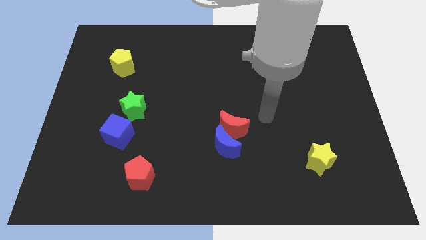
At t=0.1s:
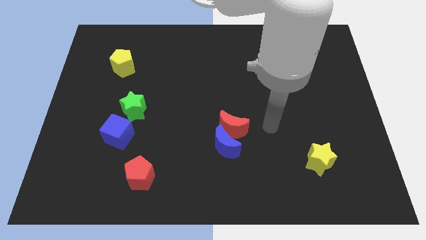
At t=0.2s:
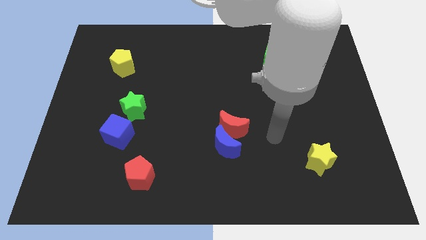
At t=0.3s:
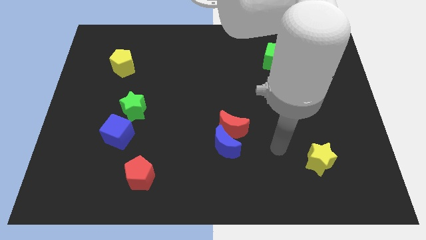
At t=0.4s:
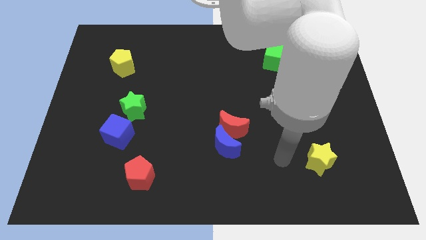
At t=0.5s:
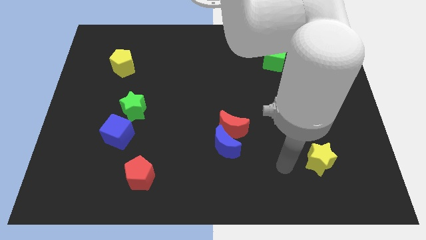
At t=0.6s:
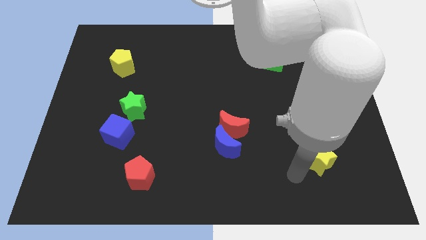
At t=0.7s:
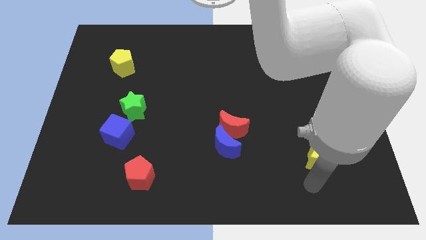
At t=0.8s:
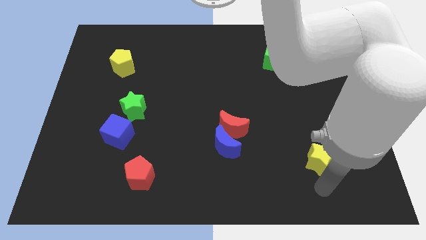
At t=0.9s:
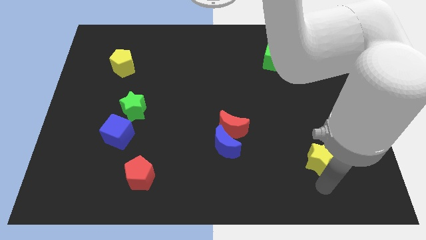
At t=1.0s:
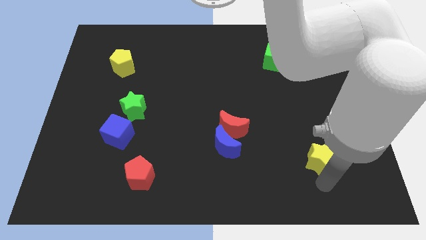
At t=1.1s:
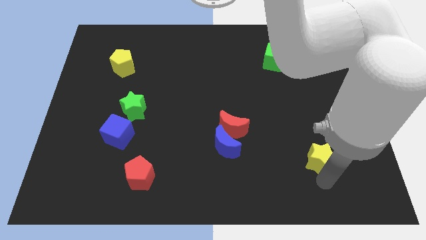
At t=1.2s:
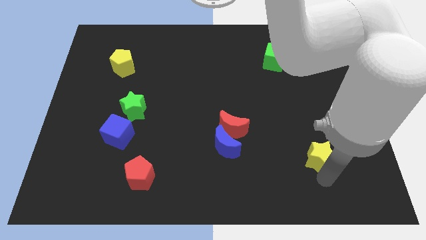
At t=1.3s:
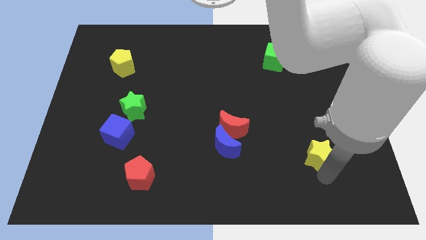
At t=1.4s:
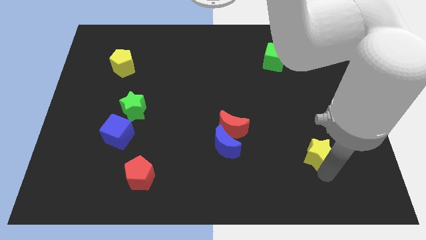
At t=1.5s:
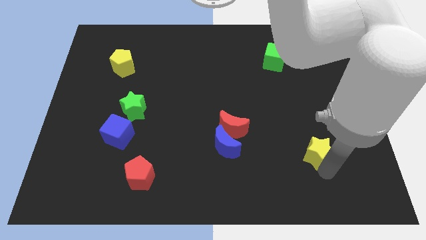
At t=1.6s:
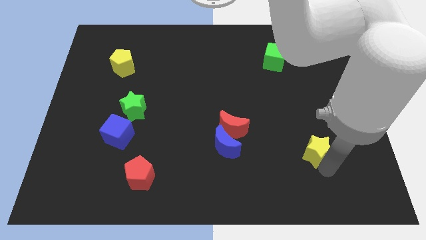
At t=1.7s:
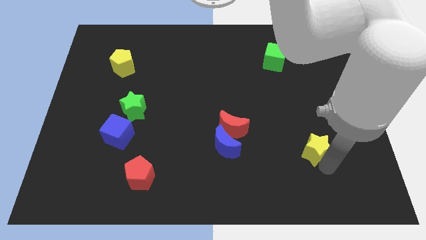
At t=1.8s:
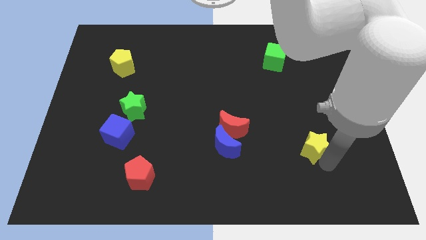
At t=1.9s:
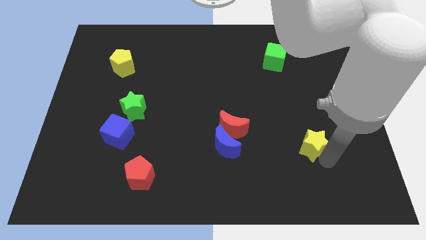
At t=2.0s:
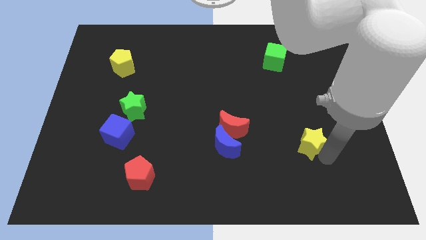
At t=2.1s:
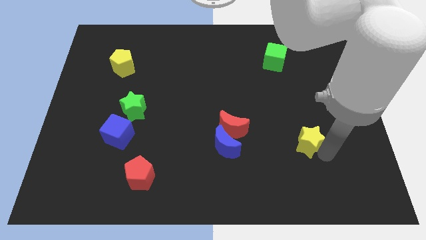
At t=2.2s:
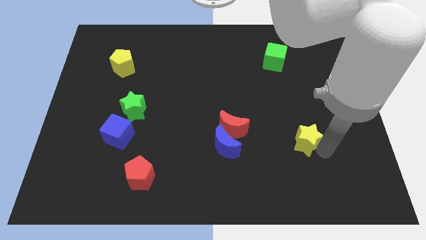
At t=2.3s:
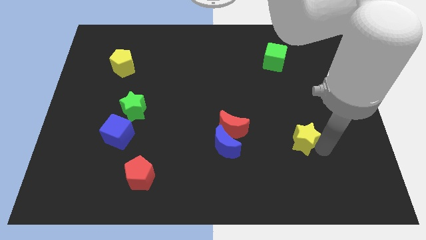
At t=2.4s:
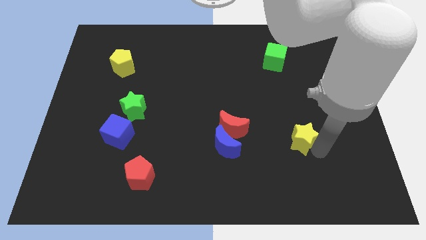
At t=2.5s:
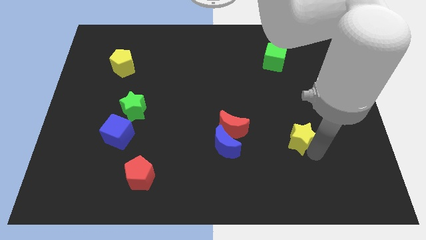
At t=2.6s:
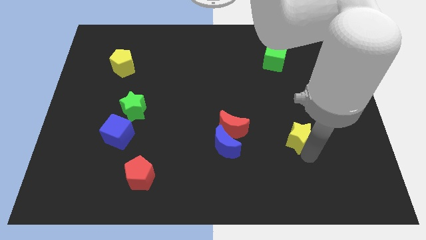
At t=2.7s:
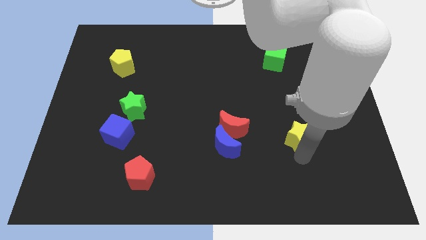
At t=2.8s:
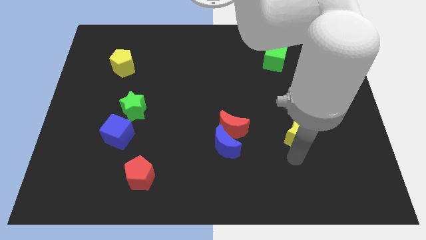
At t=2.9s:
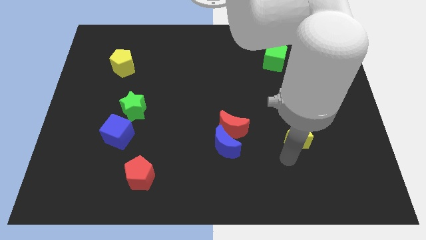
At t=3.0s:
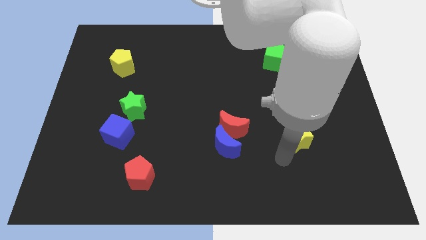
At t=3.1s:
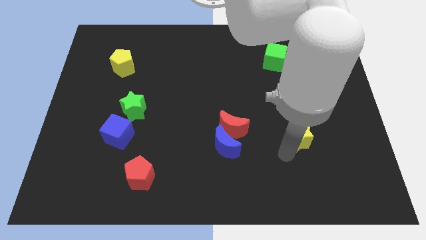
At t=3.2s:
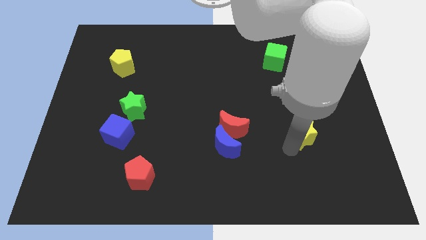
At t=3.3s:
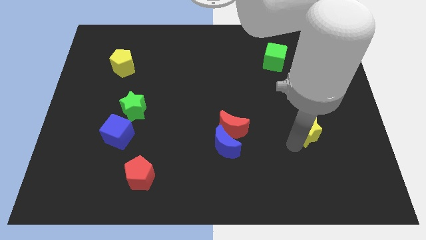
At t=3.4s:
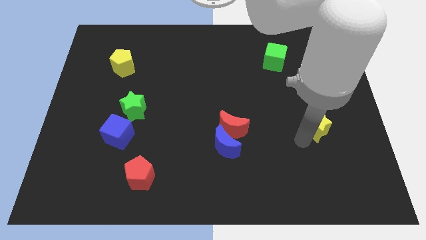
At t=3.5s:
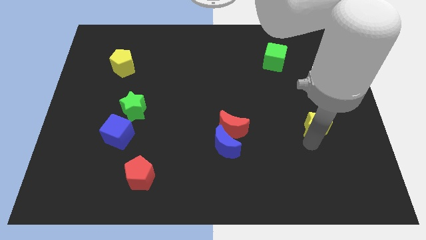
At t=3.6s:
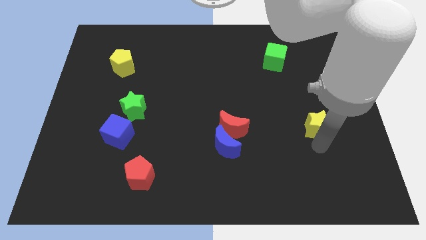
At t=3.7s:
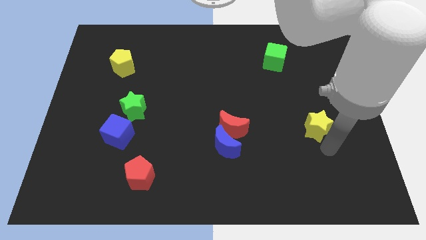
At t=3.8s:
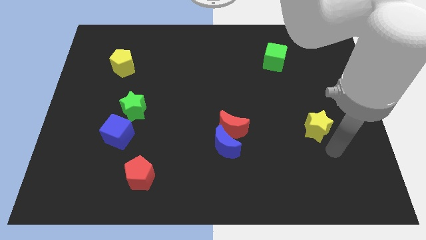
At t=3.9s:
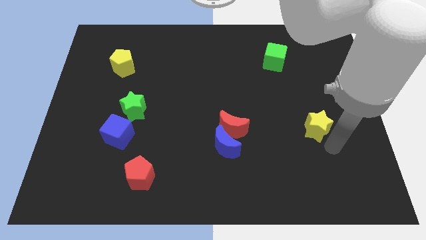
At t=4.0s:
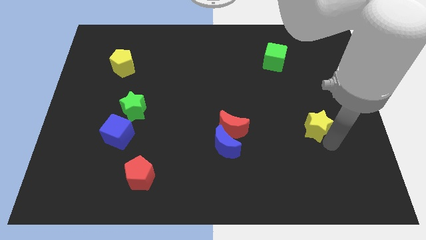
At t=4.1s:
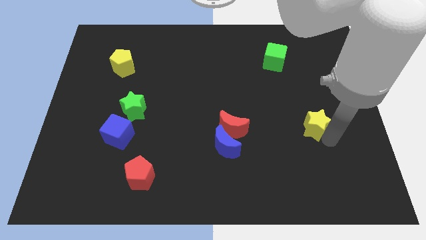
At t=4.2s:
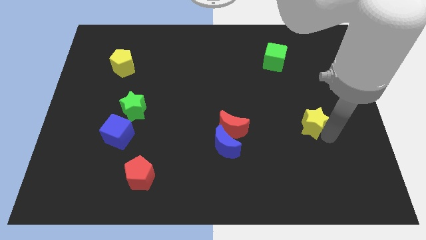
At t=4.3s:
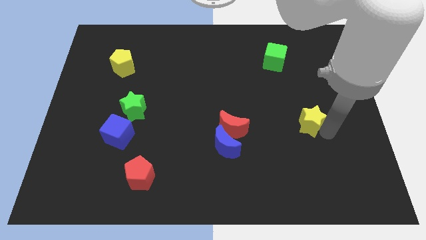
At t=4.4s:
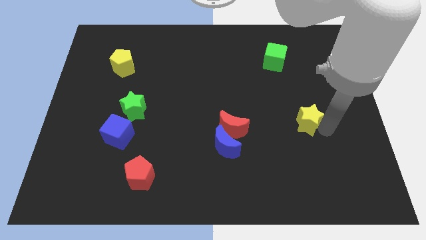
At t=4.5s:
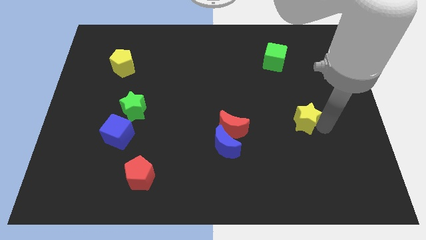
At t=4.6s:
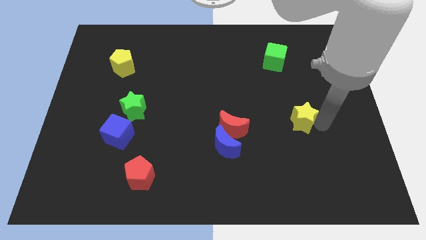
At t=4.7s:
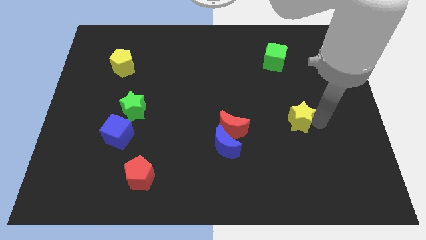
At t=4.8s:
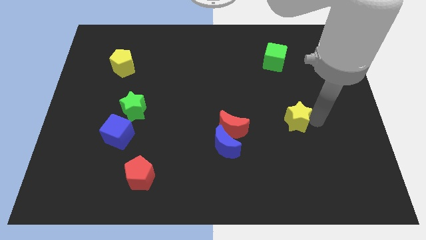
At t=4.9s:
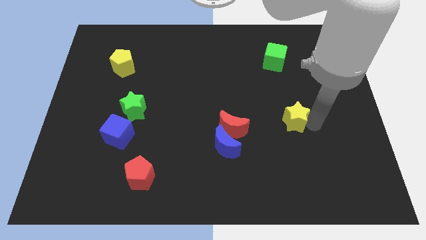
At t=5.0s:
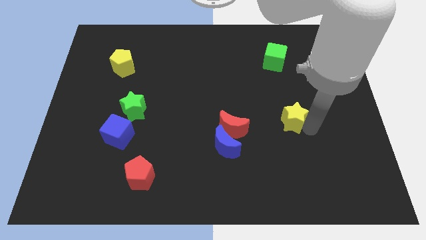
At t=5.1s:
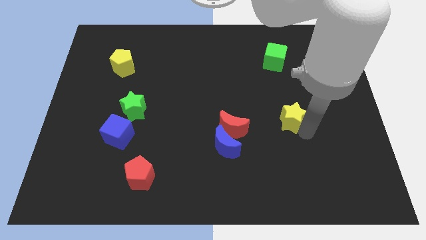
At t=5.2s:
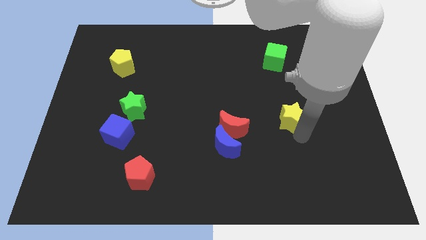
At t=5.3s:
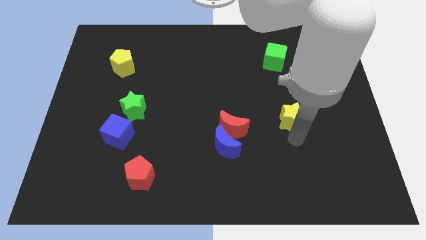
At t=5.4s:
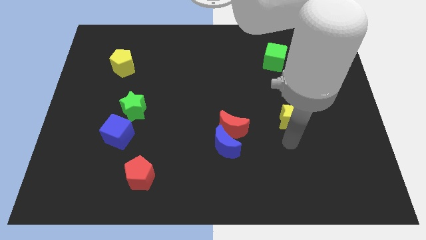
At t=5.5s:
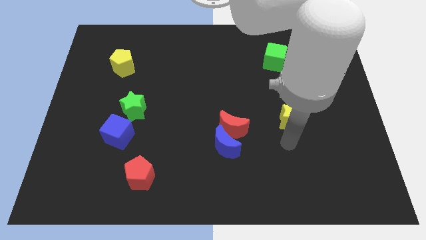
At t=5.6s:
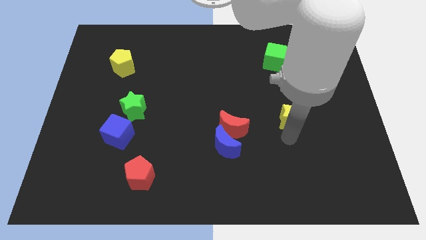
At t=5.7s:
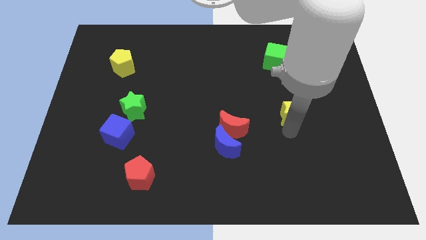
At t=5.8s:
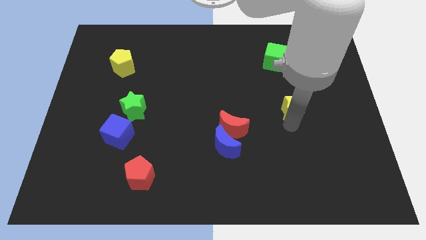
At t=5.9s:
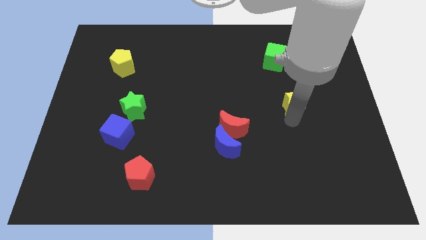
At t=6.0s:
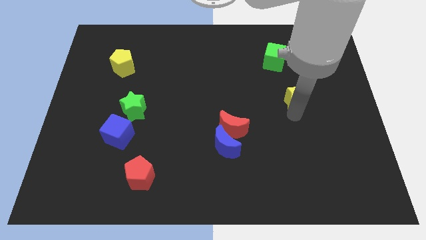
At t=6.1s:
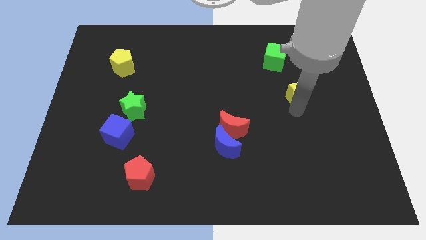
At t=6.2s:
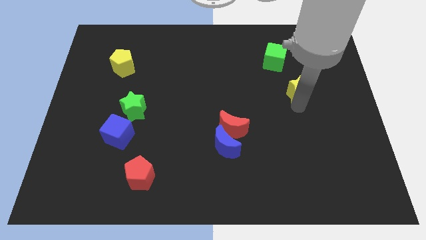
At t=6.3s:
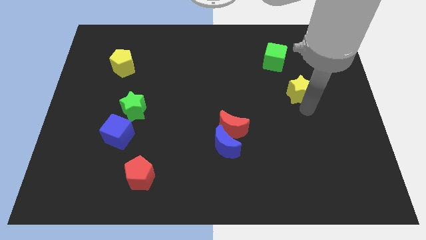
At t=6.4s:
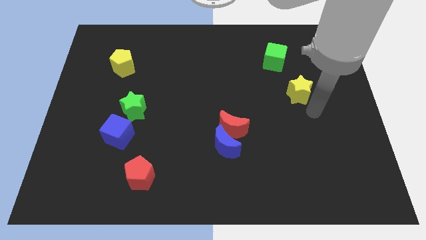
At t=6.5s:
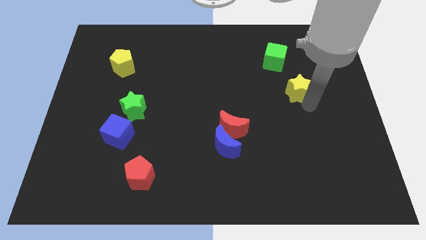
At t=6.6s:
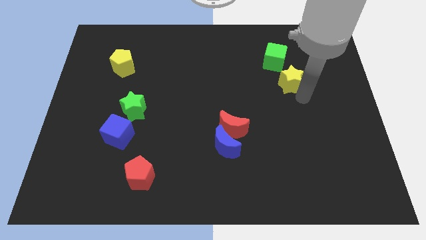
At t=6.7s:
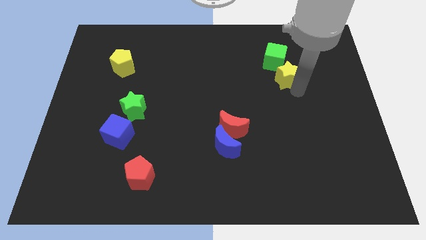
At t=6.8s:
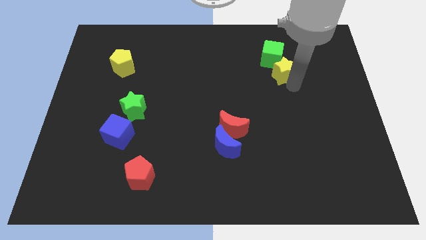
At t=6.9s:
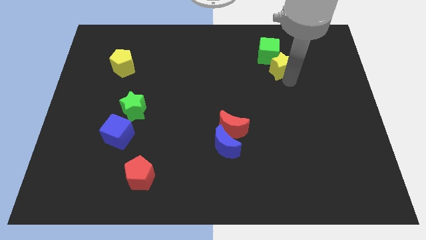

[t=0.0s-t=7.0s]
put the yellow star towards the green cube
